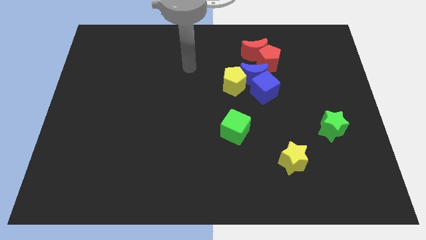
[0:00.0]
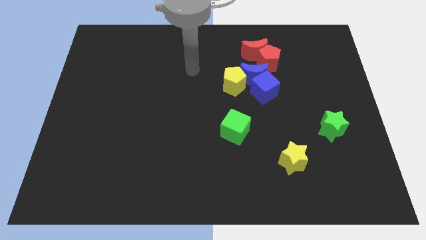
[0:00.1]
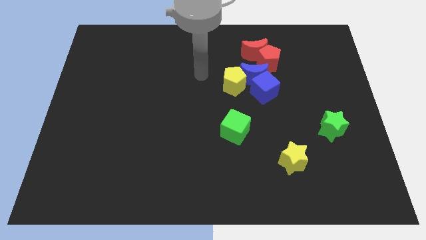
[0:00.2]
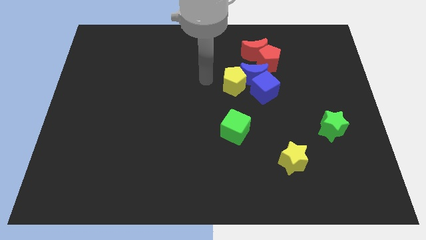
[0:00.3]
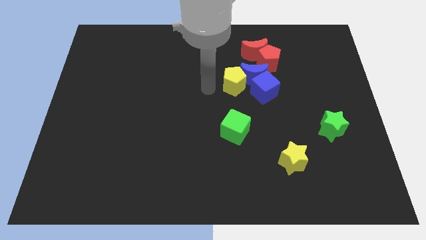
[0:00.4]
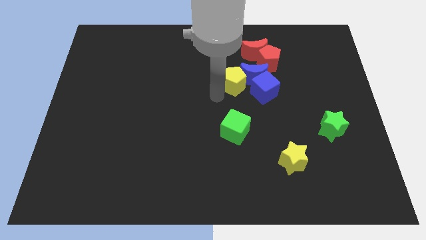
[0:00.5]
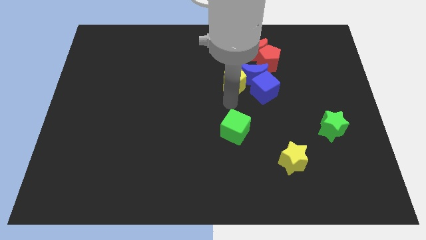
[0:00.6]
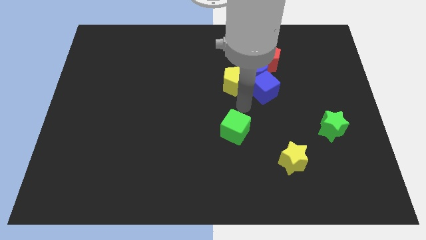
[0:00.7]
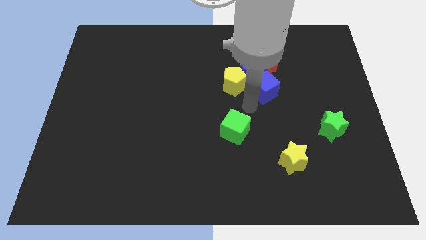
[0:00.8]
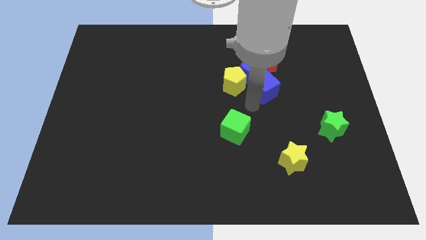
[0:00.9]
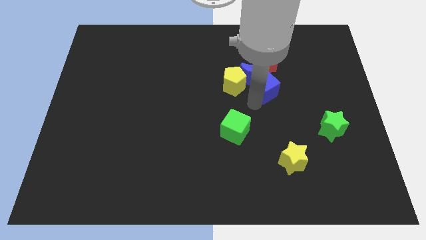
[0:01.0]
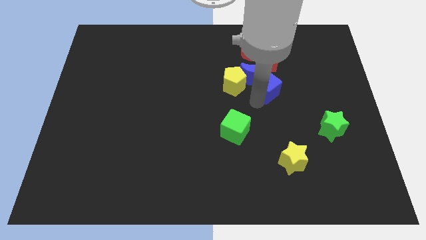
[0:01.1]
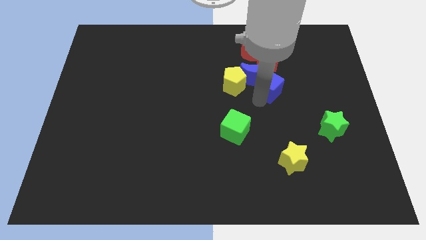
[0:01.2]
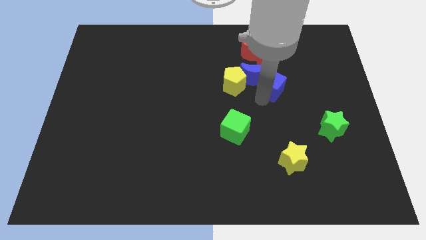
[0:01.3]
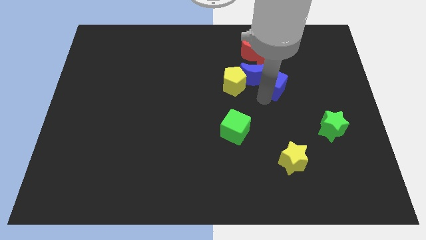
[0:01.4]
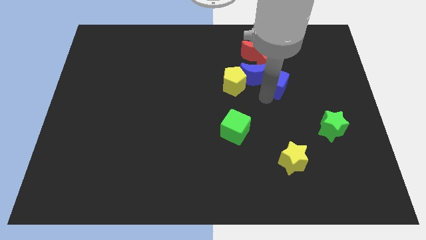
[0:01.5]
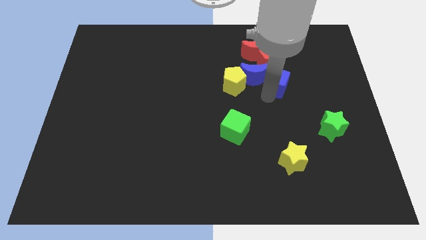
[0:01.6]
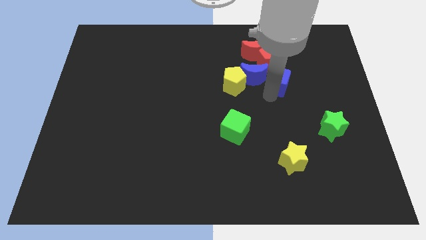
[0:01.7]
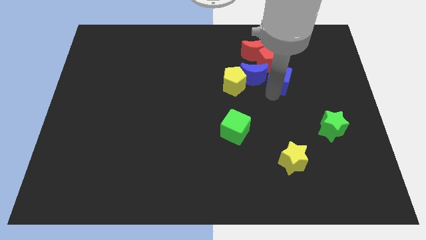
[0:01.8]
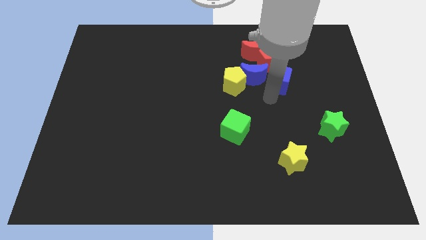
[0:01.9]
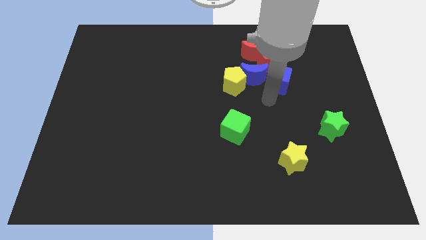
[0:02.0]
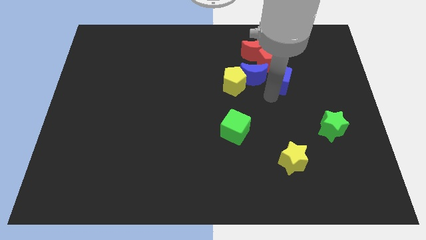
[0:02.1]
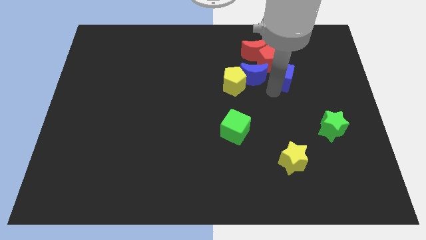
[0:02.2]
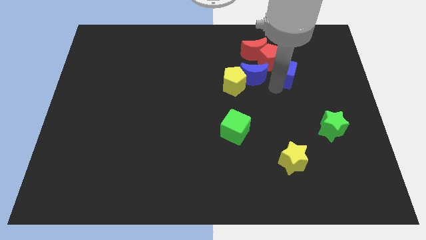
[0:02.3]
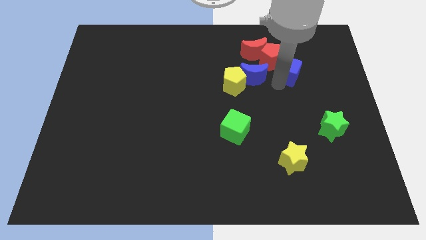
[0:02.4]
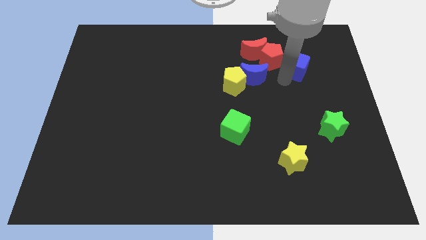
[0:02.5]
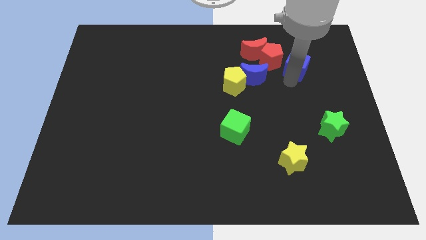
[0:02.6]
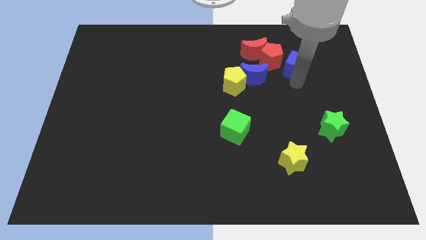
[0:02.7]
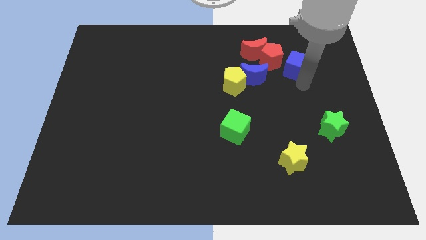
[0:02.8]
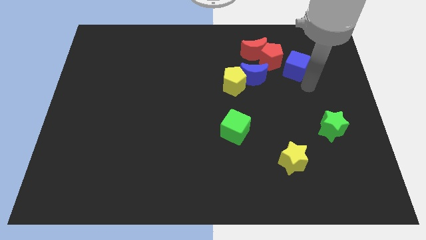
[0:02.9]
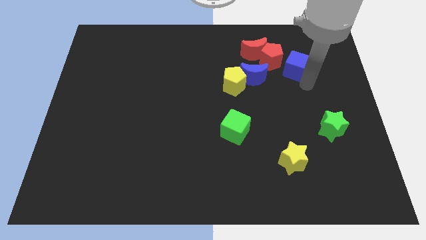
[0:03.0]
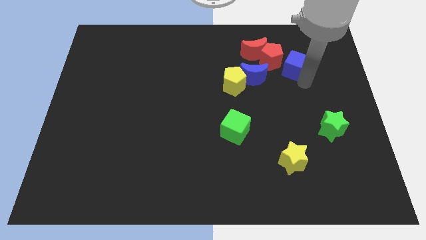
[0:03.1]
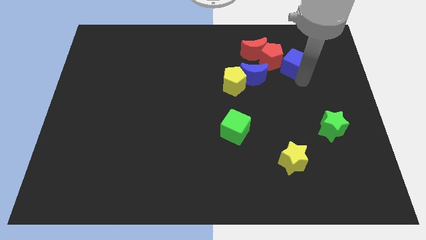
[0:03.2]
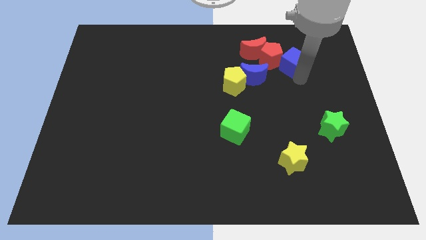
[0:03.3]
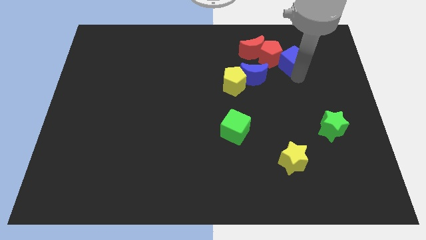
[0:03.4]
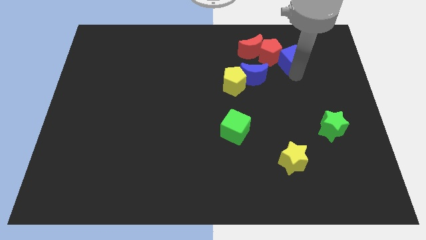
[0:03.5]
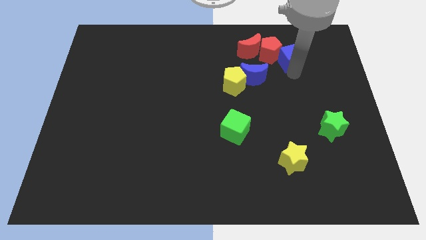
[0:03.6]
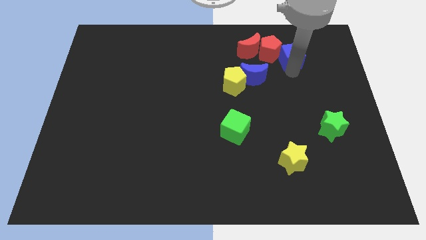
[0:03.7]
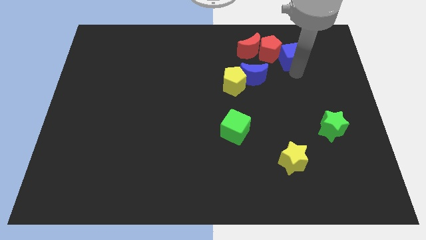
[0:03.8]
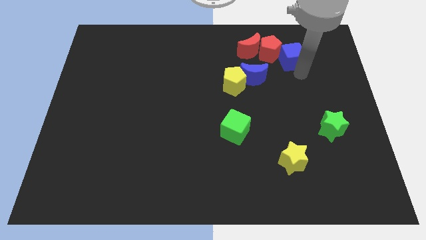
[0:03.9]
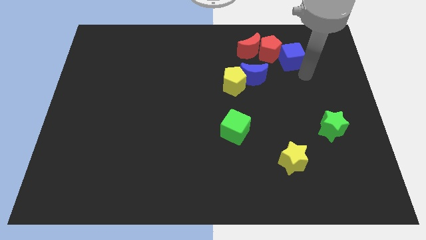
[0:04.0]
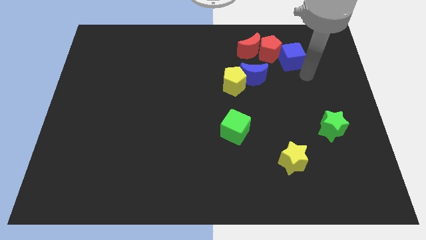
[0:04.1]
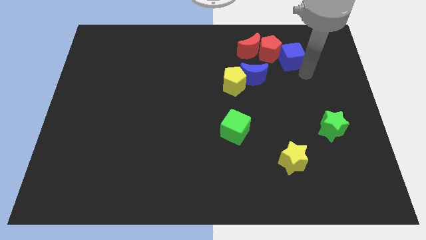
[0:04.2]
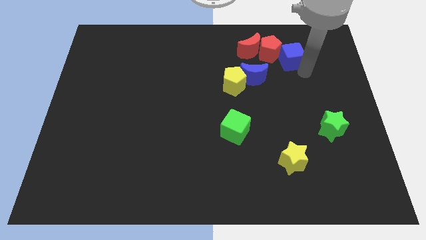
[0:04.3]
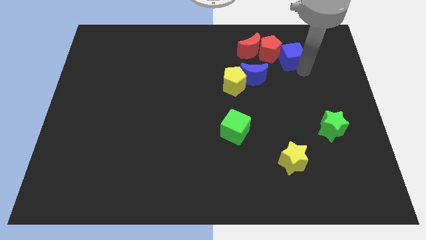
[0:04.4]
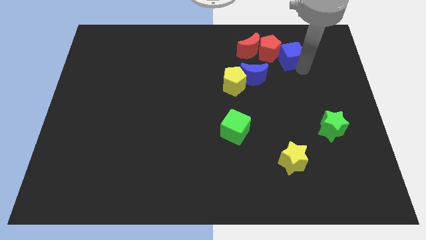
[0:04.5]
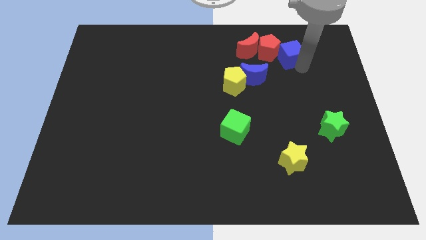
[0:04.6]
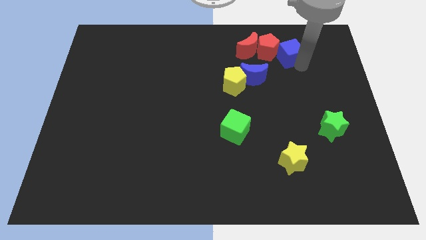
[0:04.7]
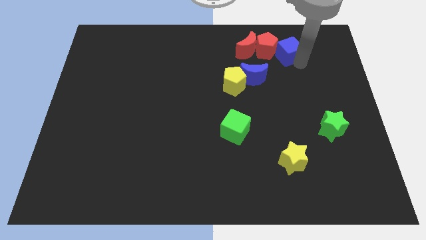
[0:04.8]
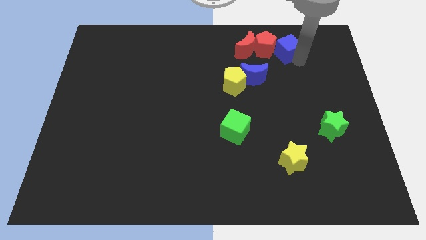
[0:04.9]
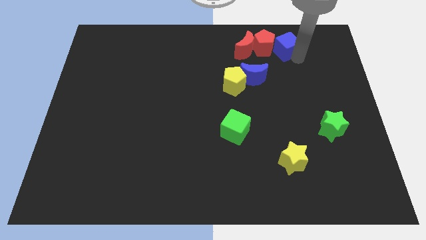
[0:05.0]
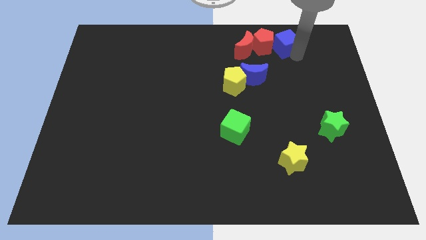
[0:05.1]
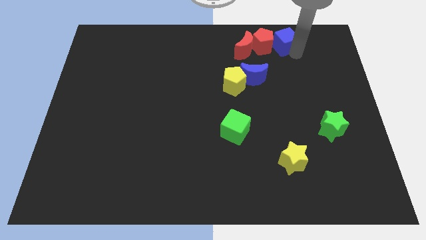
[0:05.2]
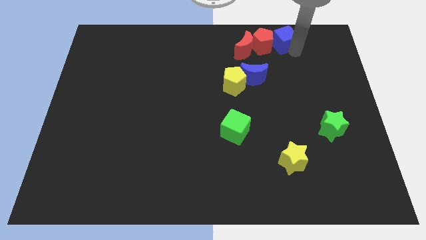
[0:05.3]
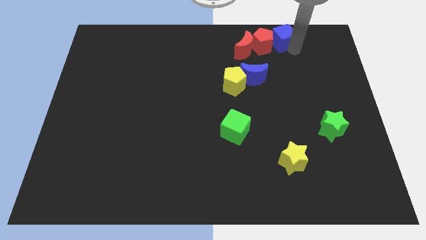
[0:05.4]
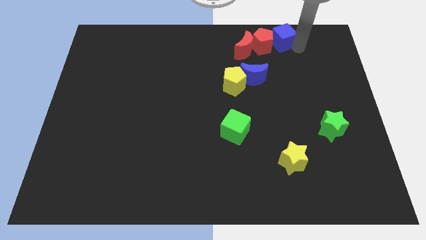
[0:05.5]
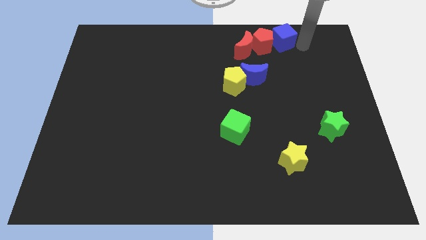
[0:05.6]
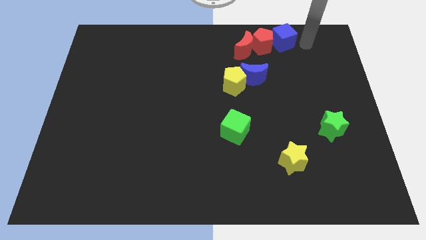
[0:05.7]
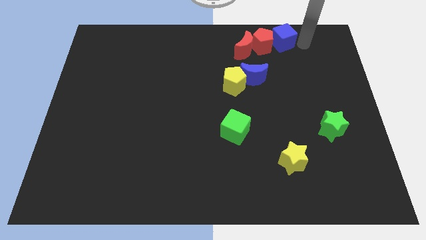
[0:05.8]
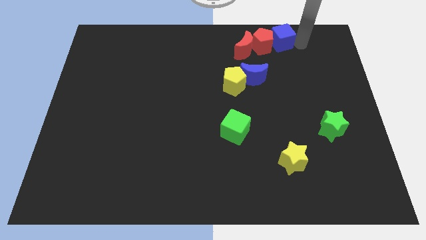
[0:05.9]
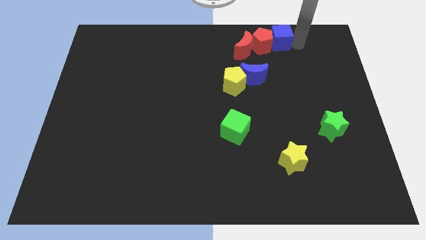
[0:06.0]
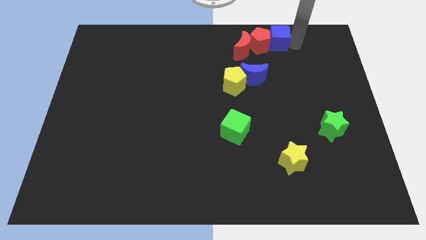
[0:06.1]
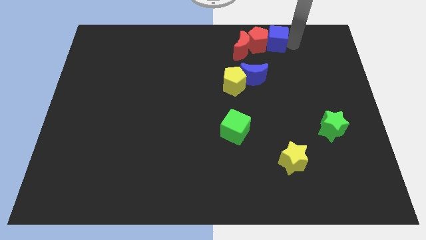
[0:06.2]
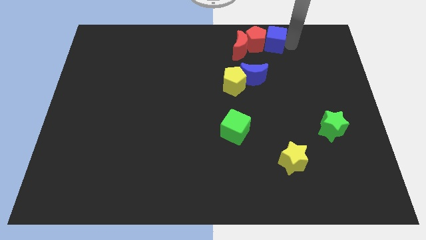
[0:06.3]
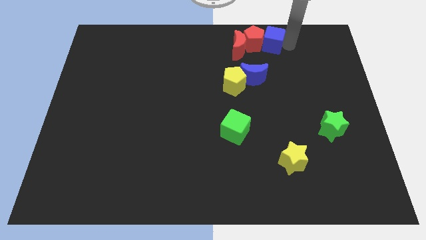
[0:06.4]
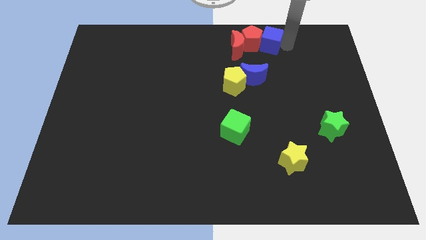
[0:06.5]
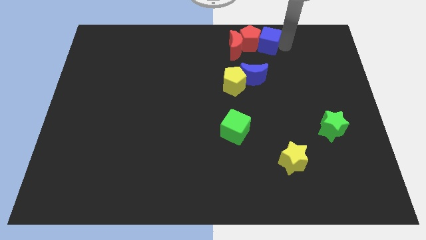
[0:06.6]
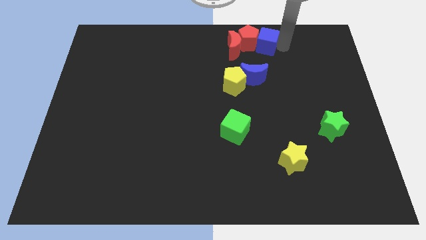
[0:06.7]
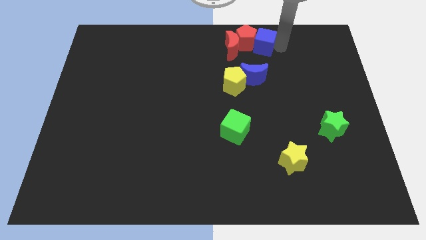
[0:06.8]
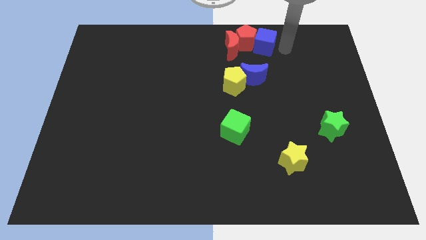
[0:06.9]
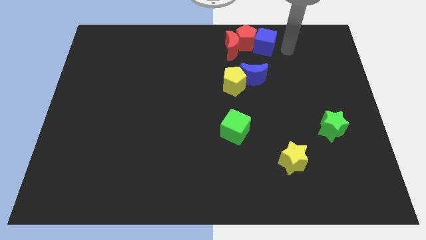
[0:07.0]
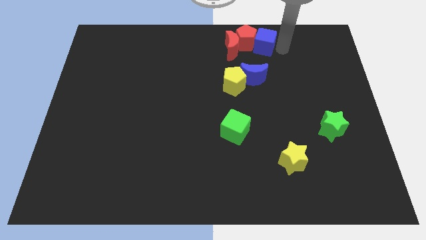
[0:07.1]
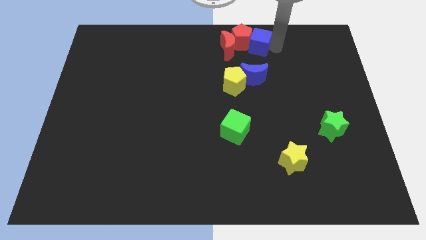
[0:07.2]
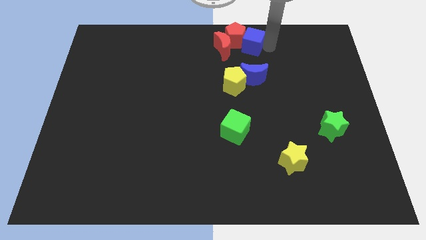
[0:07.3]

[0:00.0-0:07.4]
put the blue cube to the top
